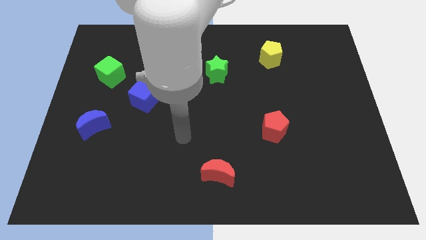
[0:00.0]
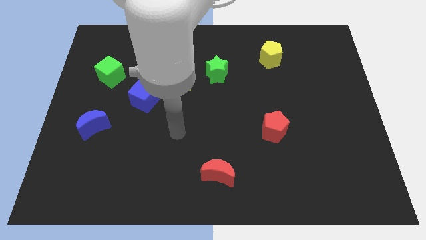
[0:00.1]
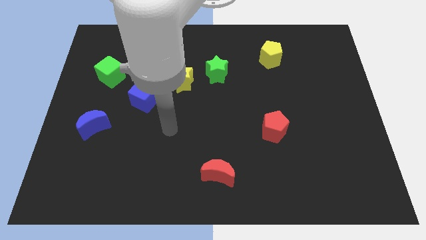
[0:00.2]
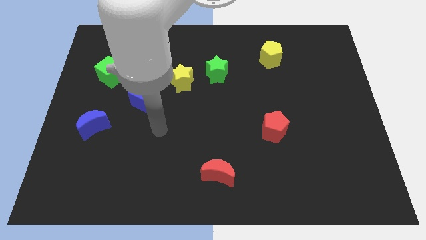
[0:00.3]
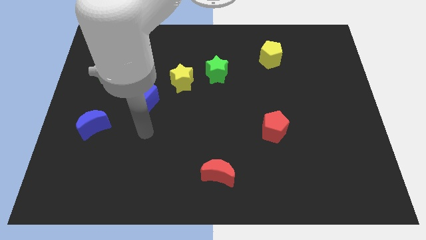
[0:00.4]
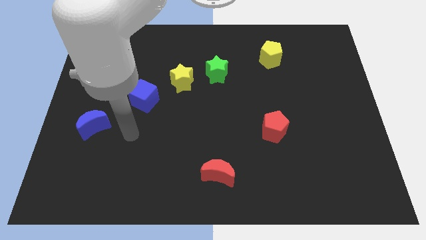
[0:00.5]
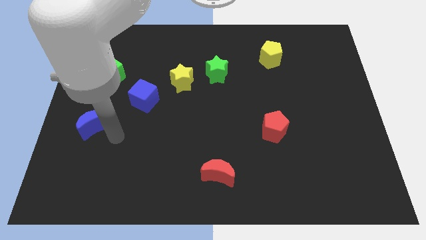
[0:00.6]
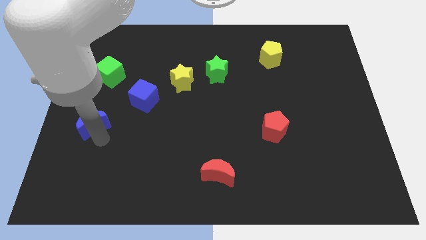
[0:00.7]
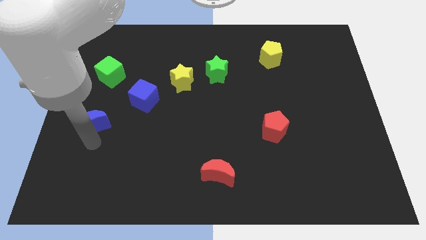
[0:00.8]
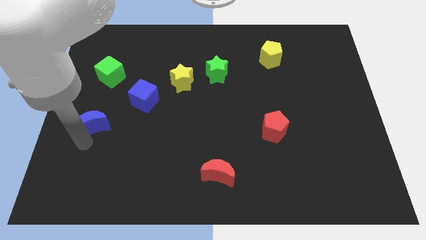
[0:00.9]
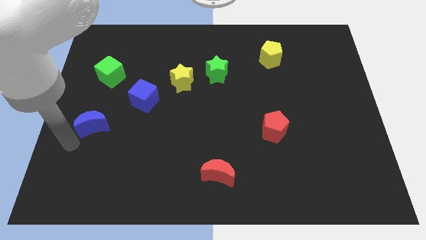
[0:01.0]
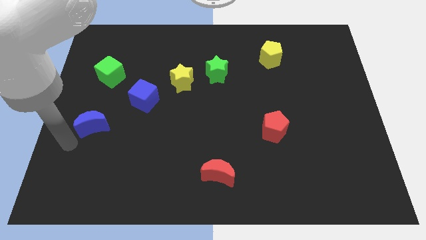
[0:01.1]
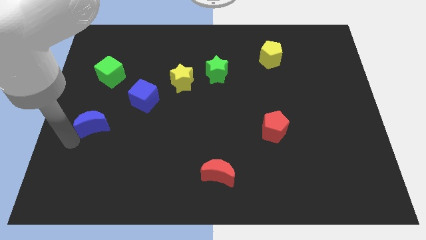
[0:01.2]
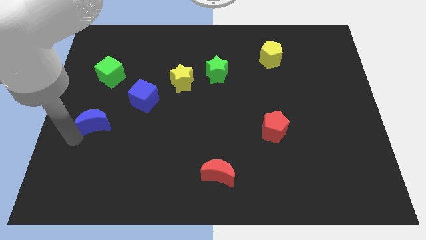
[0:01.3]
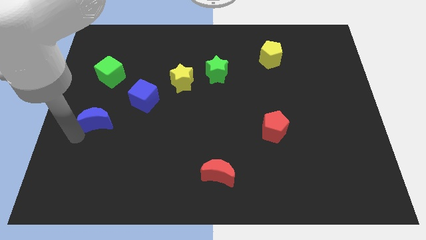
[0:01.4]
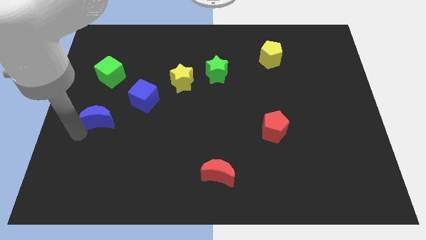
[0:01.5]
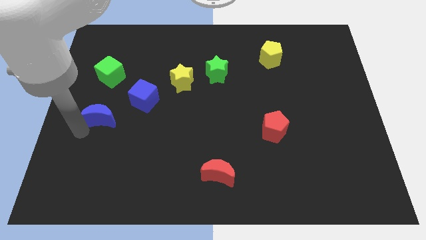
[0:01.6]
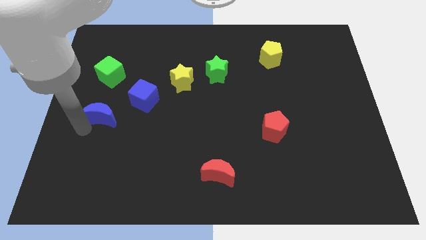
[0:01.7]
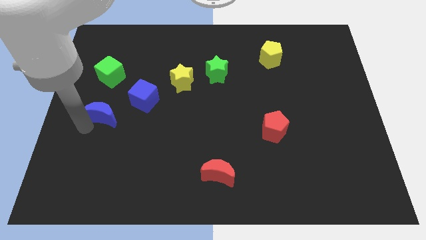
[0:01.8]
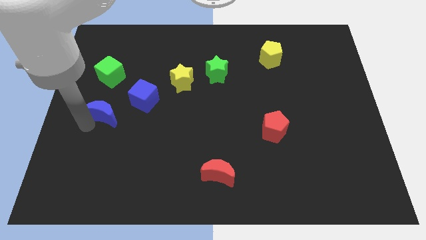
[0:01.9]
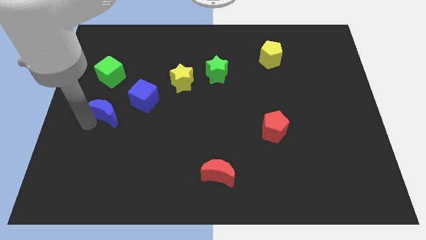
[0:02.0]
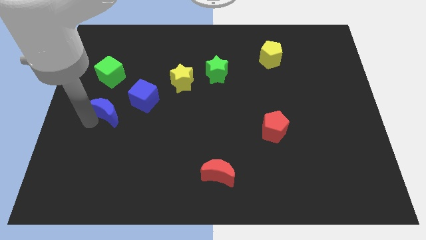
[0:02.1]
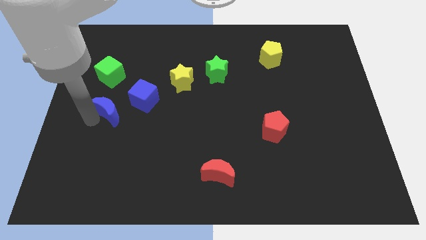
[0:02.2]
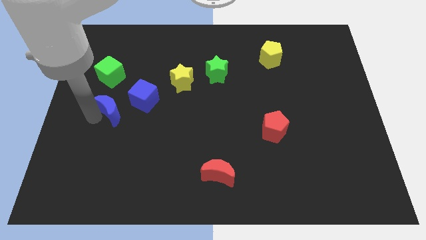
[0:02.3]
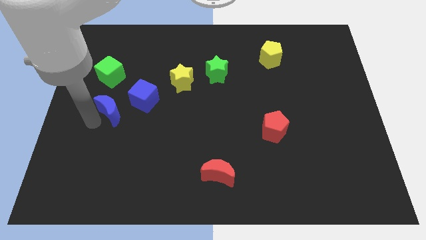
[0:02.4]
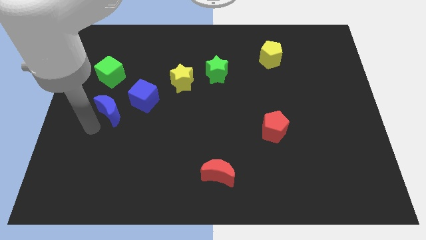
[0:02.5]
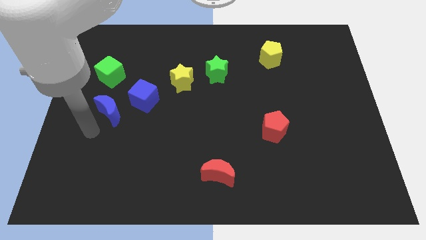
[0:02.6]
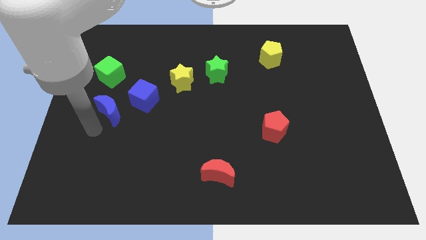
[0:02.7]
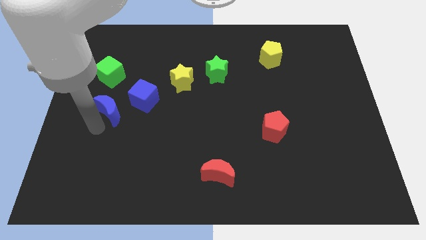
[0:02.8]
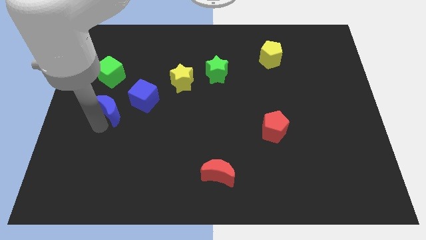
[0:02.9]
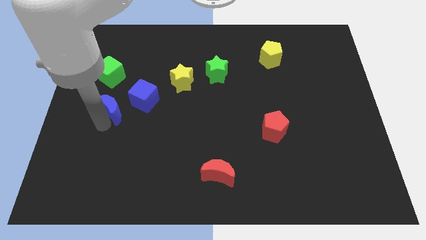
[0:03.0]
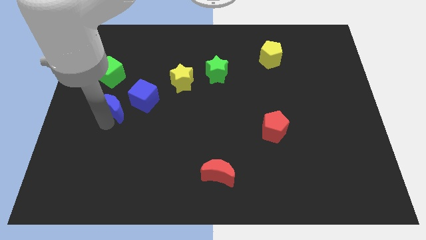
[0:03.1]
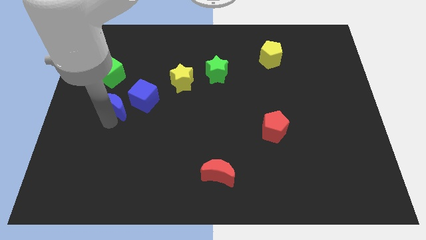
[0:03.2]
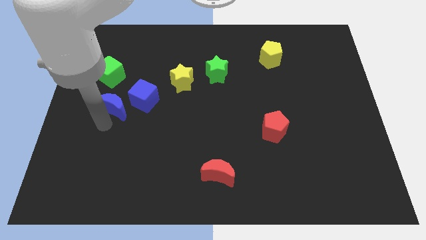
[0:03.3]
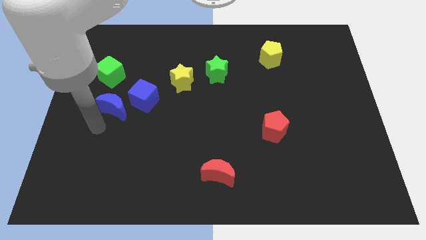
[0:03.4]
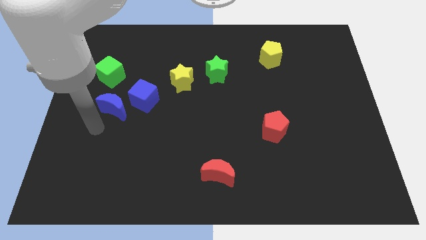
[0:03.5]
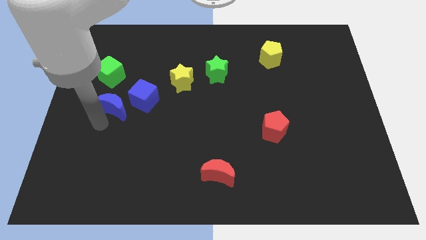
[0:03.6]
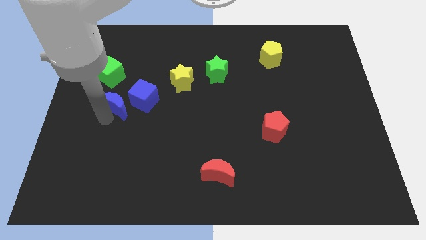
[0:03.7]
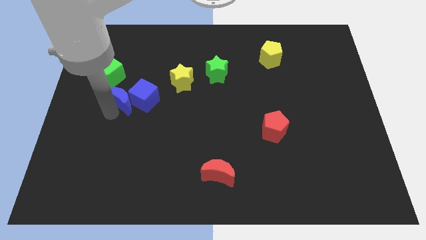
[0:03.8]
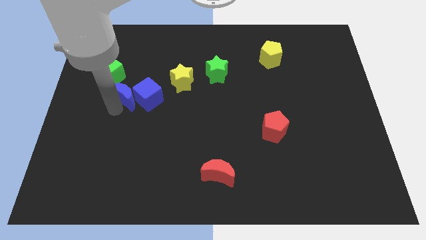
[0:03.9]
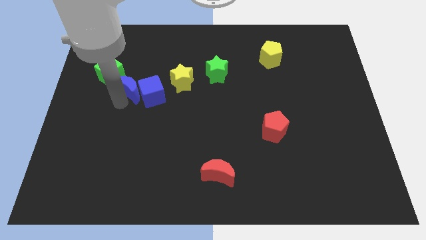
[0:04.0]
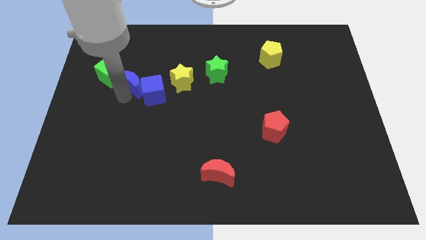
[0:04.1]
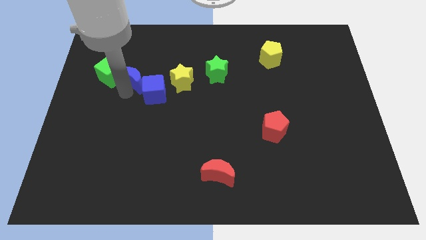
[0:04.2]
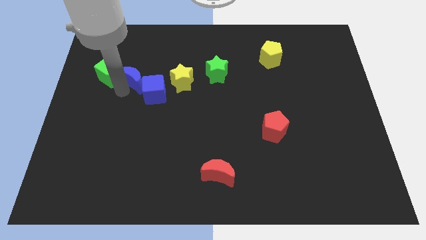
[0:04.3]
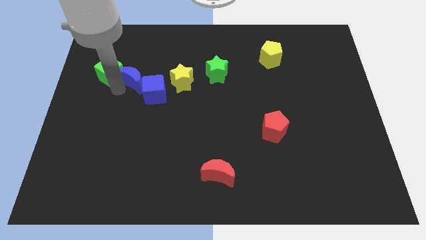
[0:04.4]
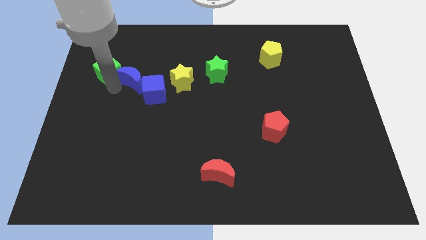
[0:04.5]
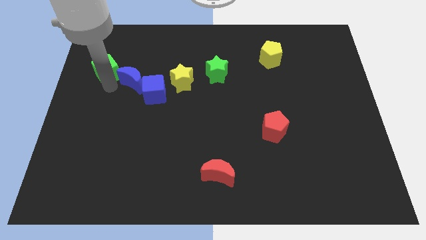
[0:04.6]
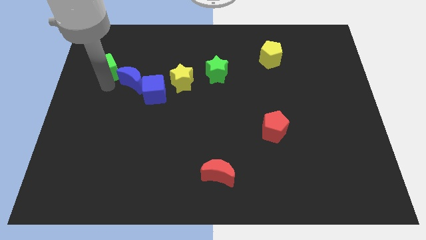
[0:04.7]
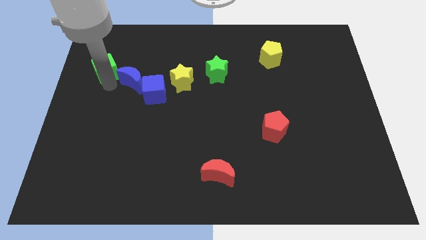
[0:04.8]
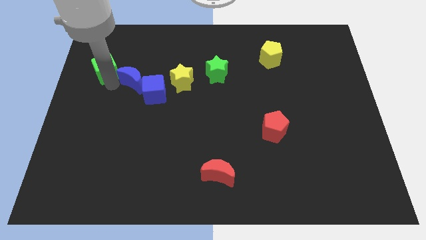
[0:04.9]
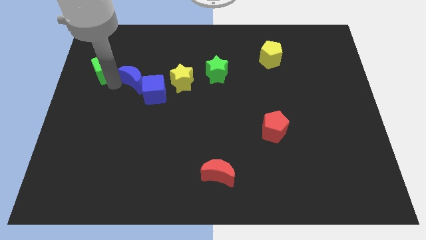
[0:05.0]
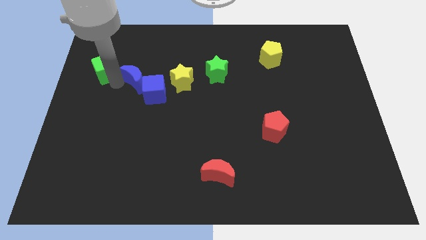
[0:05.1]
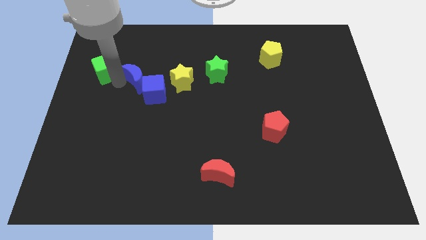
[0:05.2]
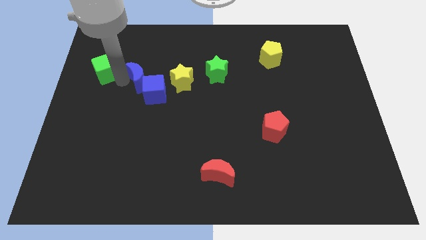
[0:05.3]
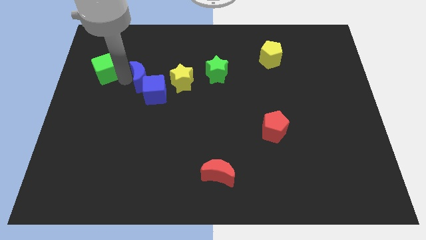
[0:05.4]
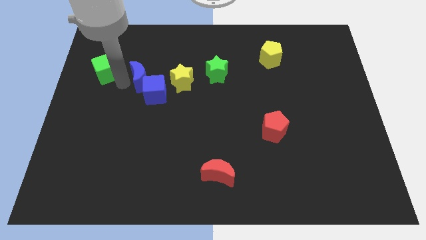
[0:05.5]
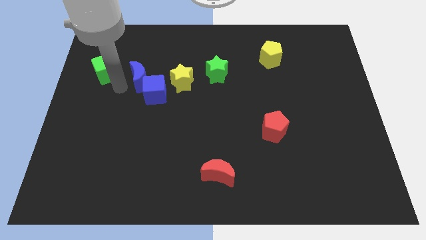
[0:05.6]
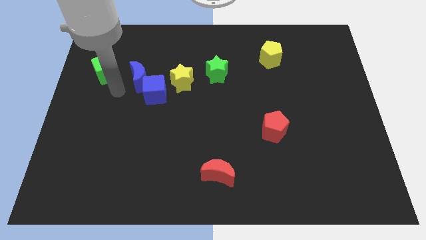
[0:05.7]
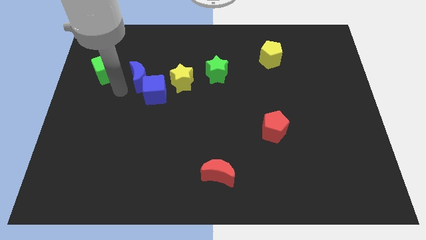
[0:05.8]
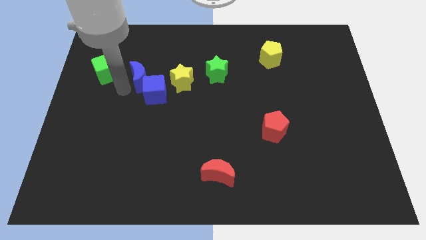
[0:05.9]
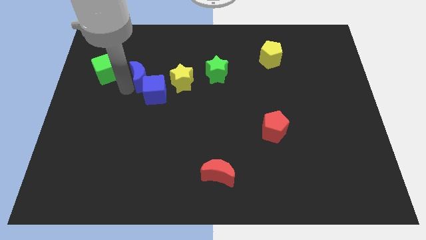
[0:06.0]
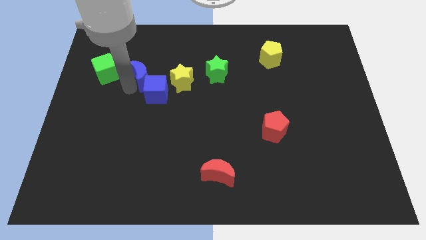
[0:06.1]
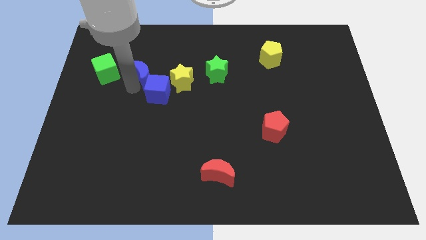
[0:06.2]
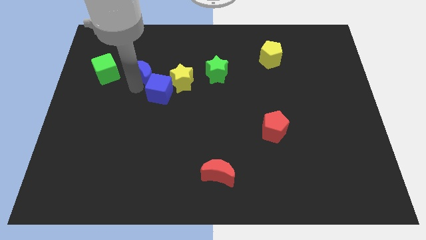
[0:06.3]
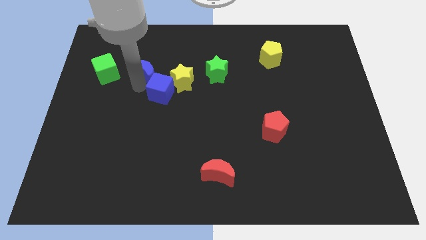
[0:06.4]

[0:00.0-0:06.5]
move the blue moon to the top left side of the yellow star

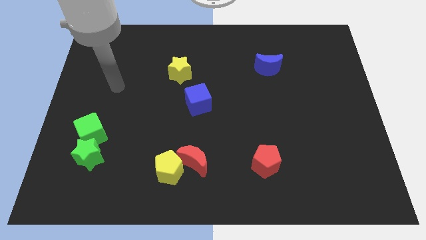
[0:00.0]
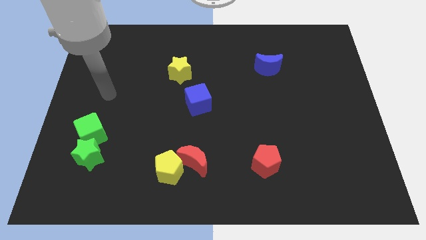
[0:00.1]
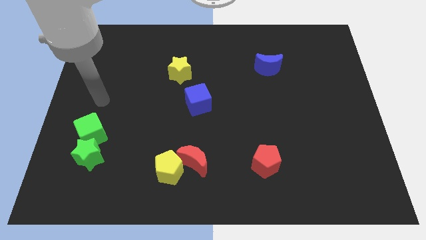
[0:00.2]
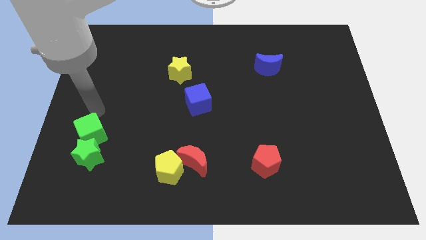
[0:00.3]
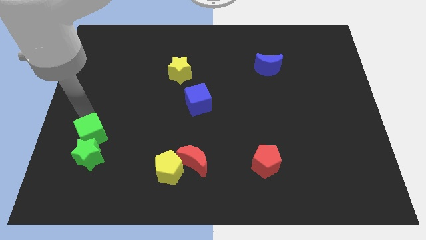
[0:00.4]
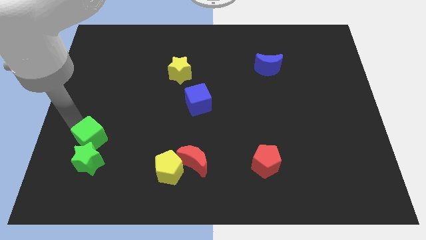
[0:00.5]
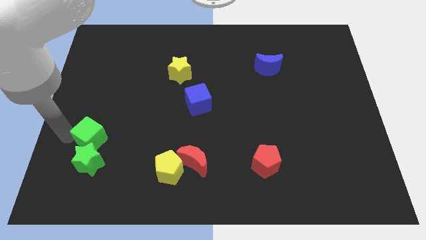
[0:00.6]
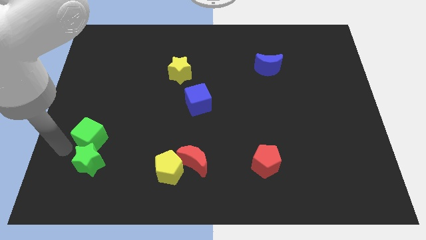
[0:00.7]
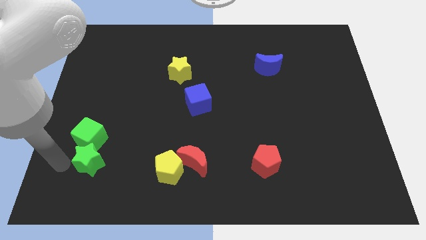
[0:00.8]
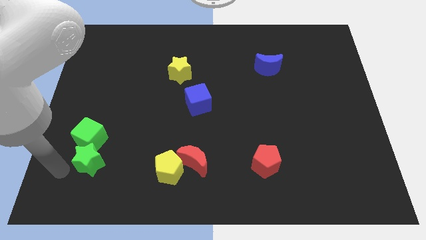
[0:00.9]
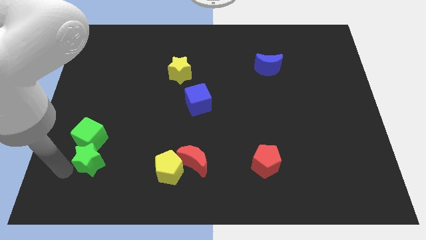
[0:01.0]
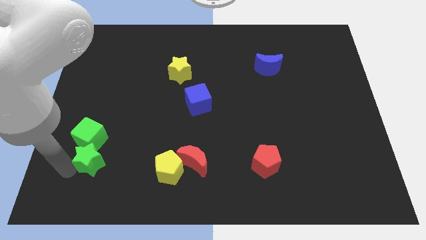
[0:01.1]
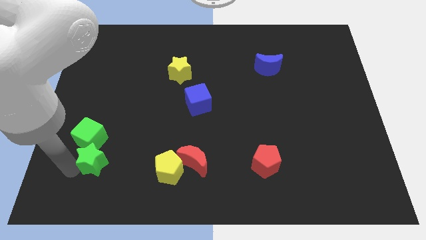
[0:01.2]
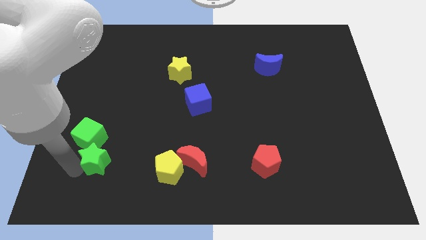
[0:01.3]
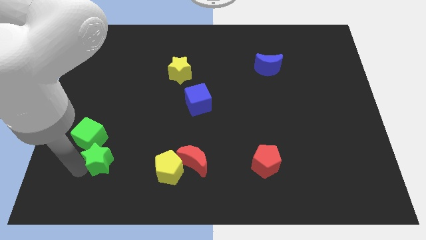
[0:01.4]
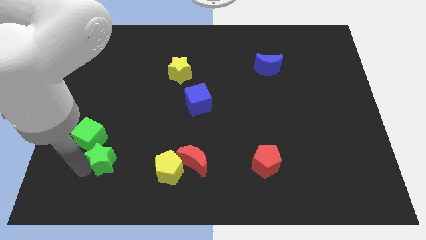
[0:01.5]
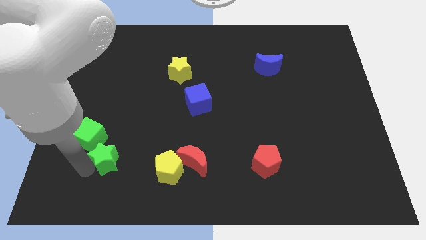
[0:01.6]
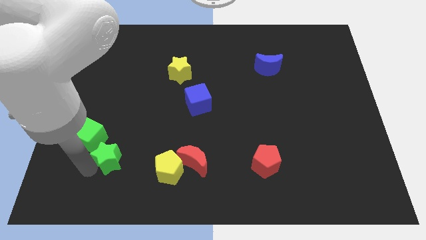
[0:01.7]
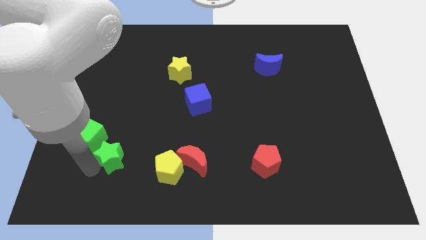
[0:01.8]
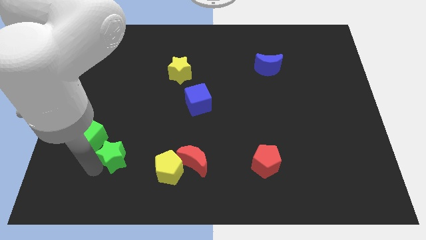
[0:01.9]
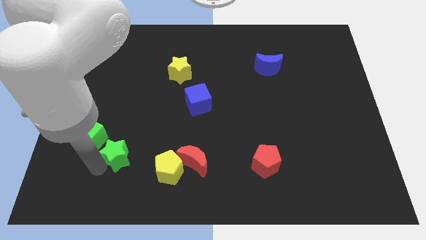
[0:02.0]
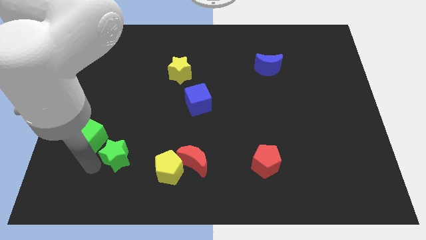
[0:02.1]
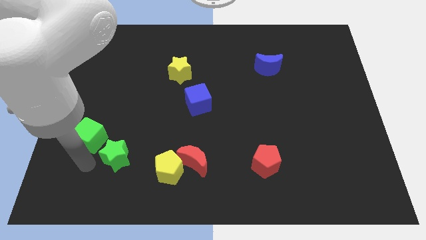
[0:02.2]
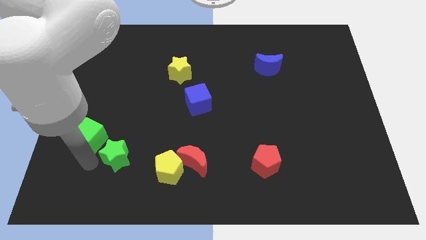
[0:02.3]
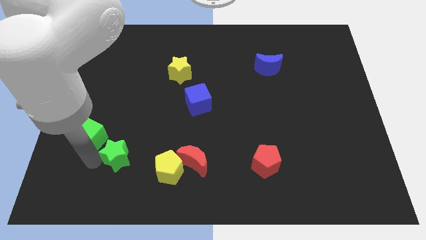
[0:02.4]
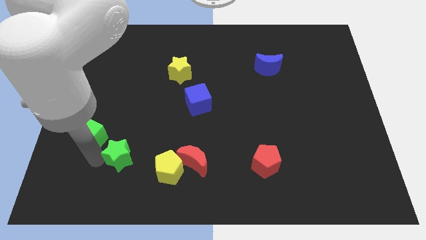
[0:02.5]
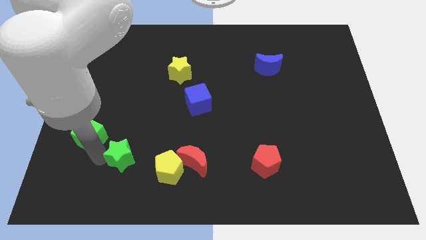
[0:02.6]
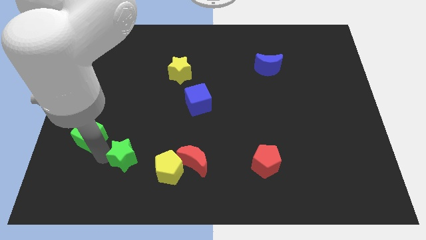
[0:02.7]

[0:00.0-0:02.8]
move the green star diagonally up and to the left of the yellow pentagon
